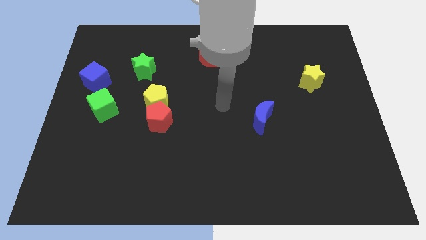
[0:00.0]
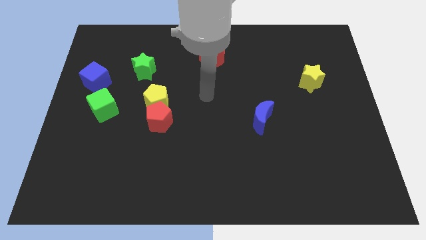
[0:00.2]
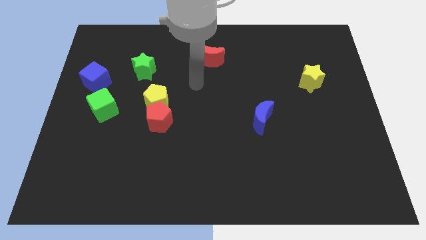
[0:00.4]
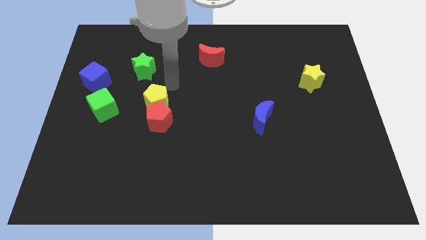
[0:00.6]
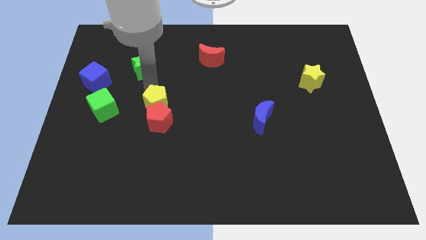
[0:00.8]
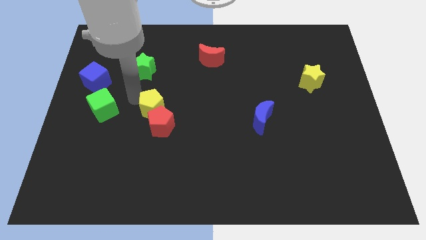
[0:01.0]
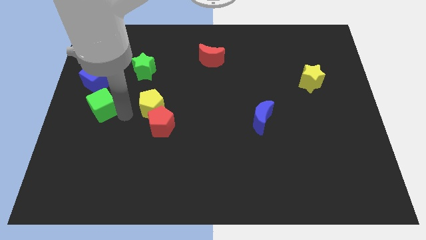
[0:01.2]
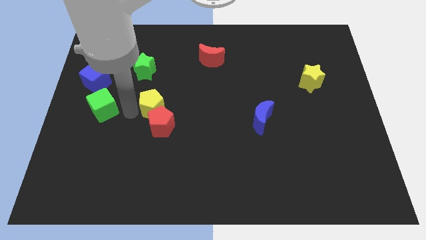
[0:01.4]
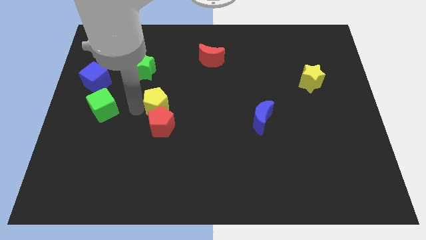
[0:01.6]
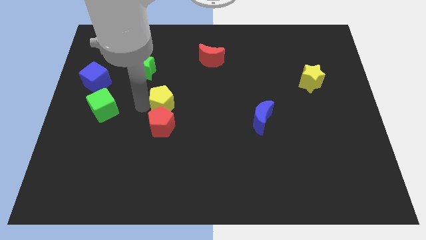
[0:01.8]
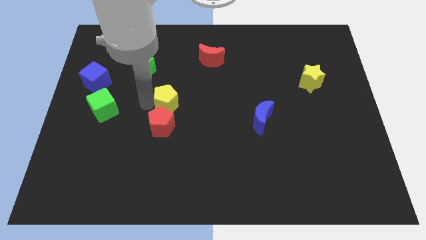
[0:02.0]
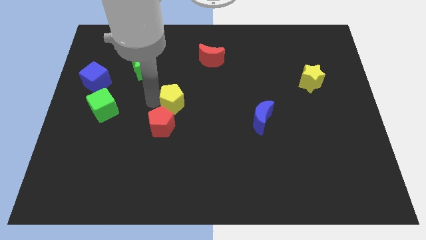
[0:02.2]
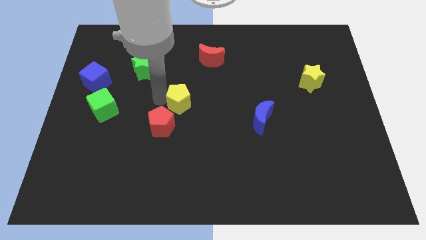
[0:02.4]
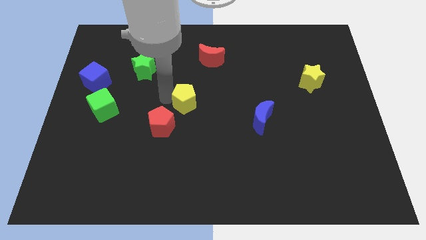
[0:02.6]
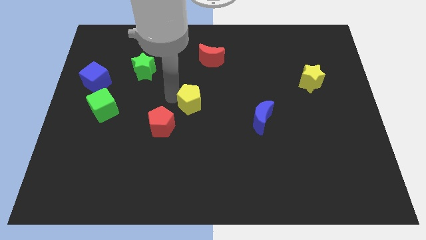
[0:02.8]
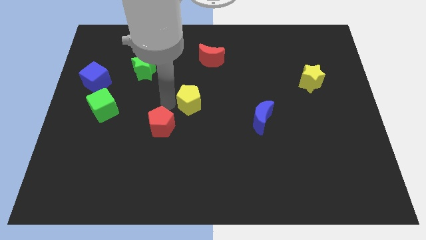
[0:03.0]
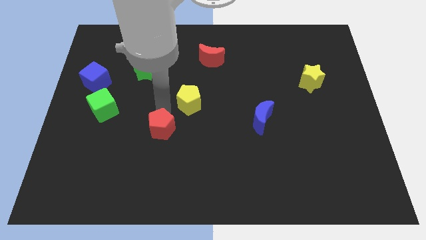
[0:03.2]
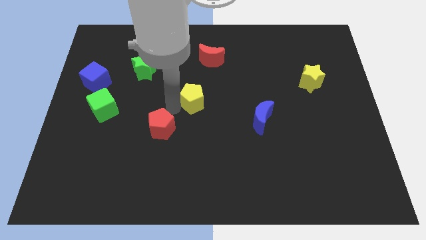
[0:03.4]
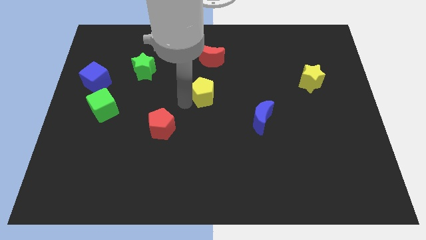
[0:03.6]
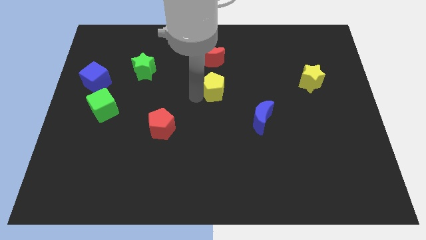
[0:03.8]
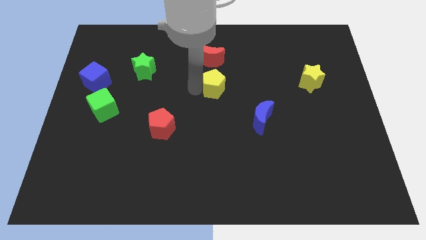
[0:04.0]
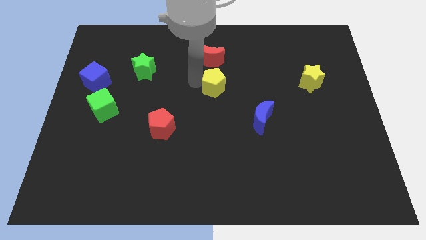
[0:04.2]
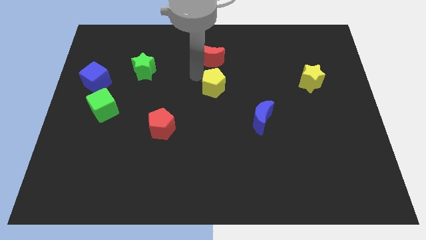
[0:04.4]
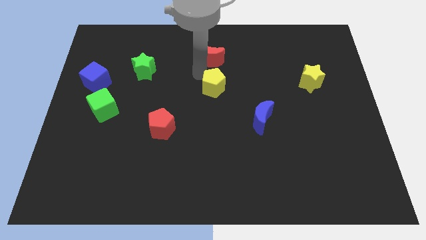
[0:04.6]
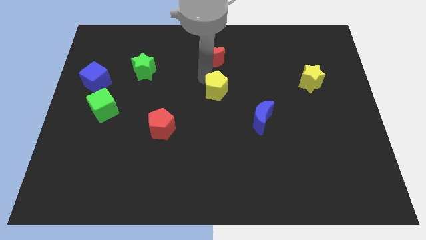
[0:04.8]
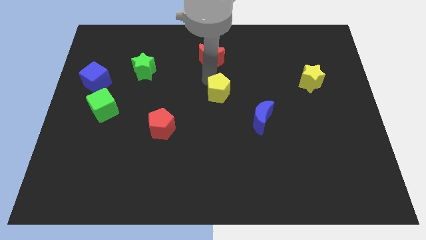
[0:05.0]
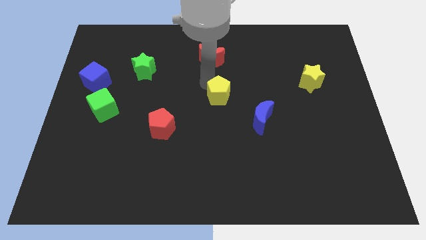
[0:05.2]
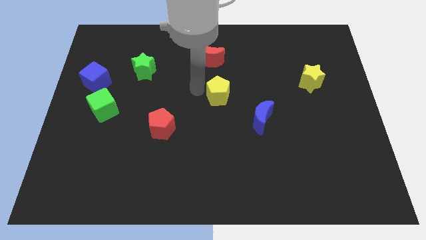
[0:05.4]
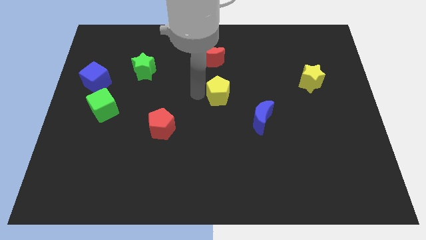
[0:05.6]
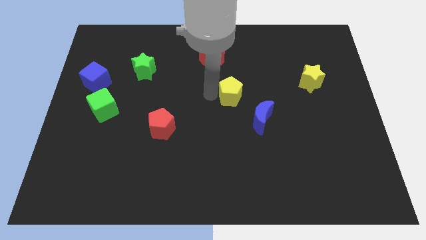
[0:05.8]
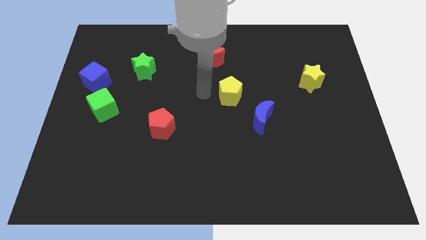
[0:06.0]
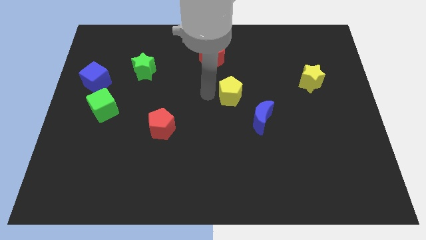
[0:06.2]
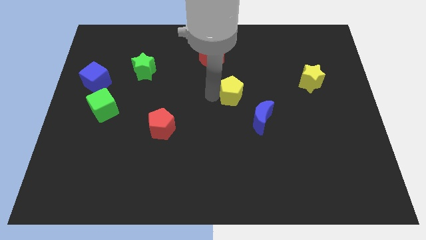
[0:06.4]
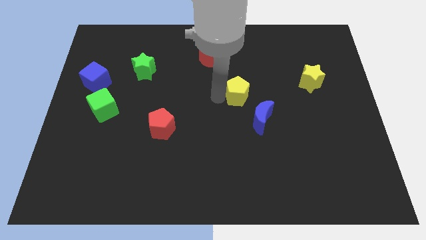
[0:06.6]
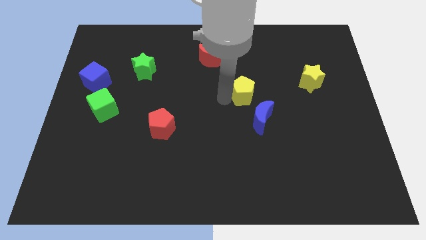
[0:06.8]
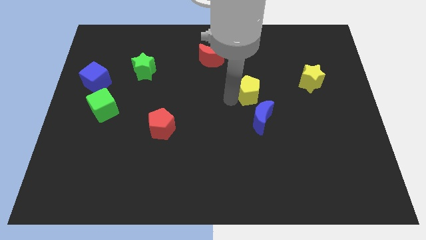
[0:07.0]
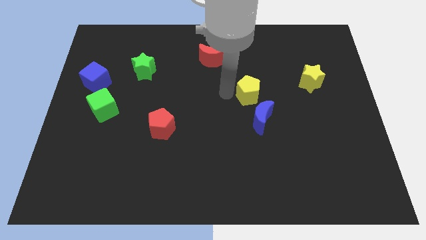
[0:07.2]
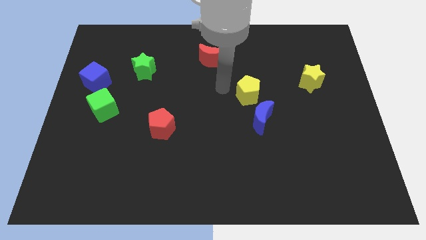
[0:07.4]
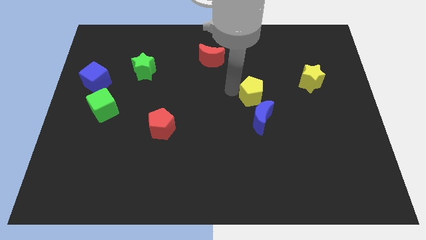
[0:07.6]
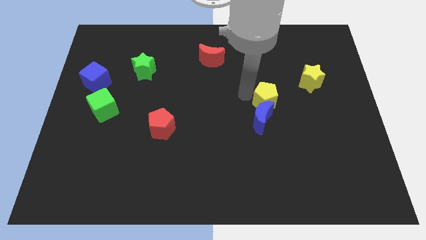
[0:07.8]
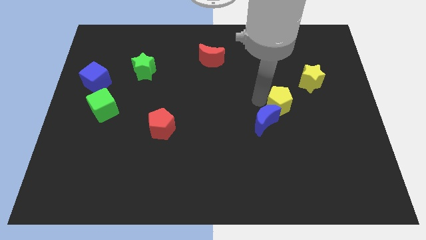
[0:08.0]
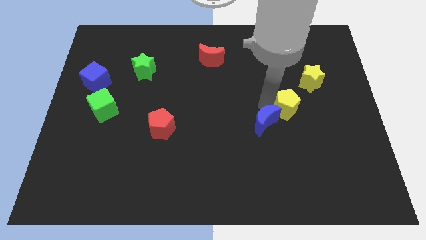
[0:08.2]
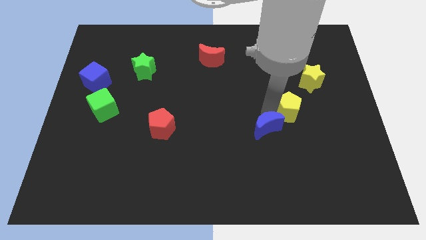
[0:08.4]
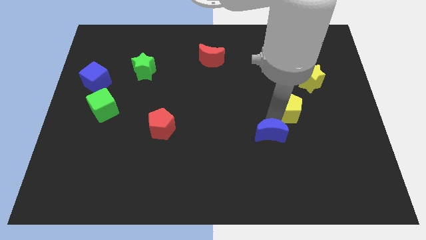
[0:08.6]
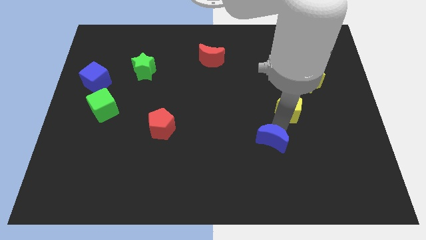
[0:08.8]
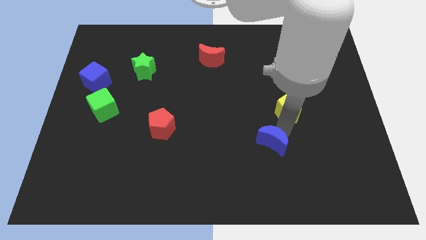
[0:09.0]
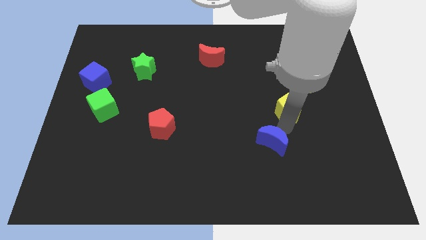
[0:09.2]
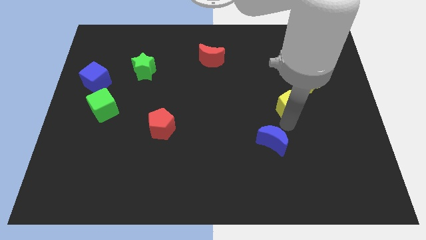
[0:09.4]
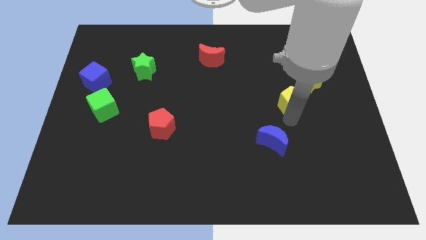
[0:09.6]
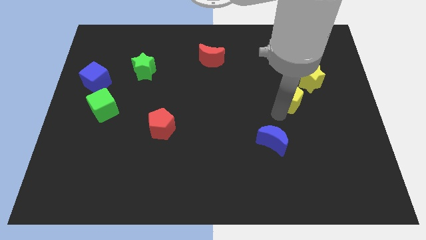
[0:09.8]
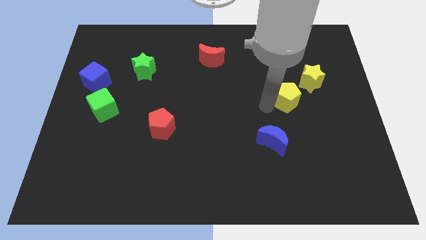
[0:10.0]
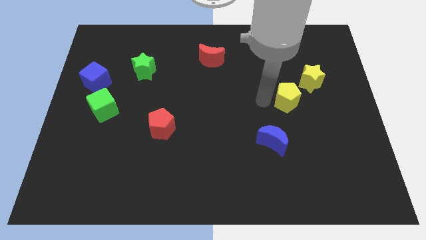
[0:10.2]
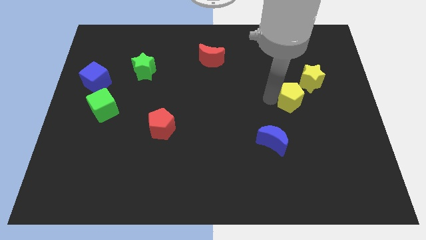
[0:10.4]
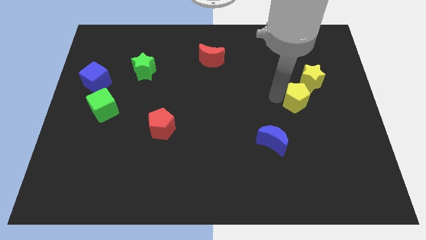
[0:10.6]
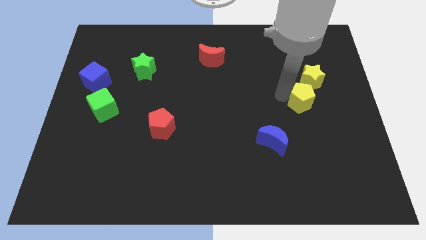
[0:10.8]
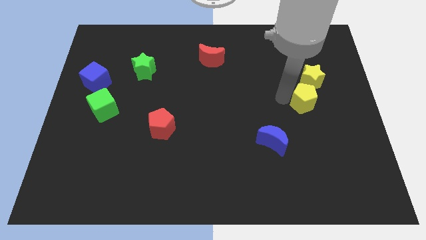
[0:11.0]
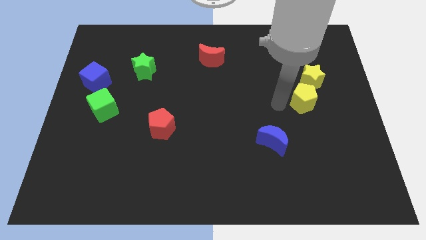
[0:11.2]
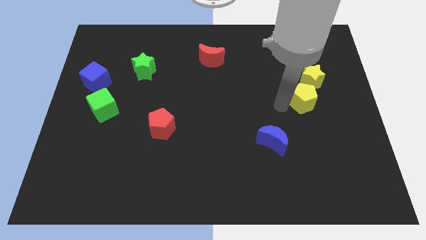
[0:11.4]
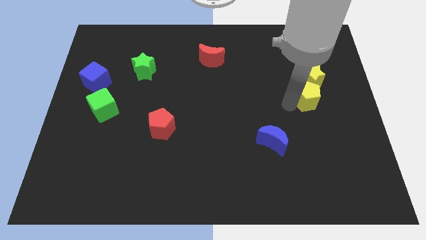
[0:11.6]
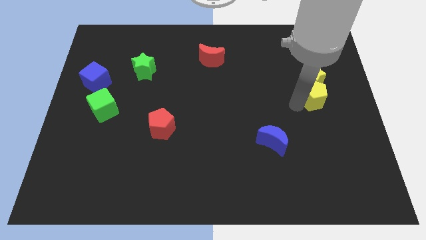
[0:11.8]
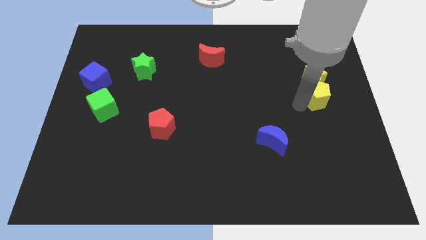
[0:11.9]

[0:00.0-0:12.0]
move the yellow pentagon to the center right

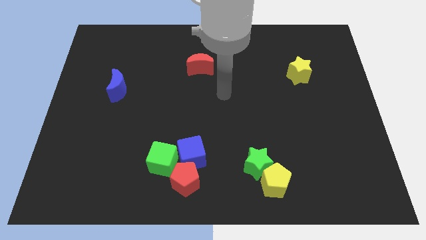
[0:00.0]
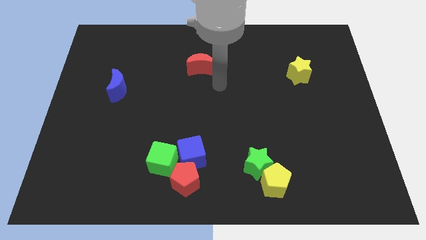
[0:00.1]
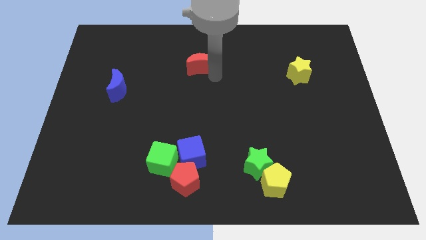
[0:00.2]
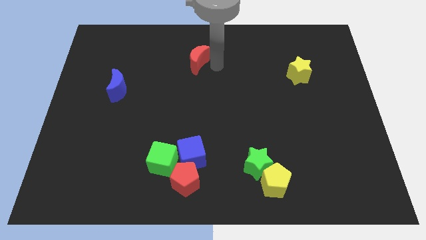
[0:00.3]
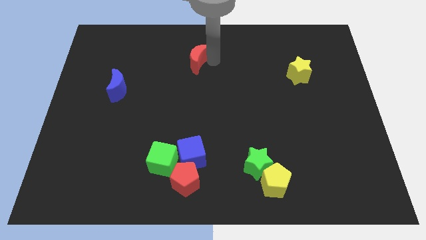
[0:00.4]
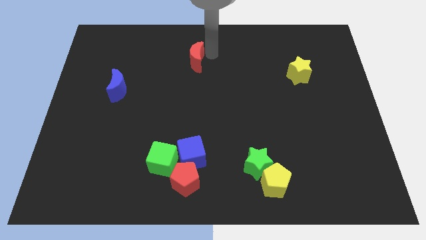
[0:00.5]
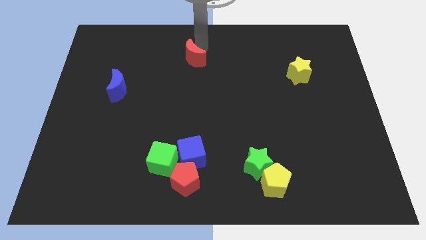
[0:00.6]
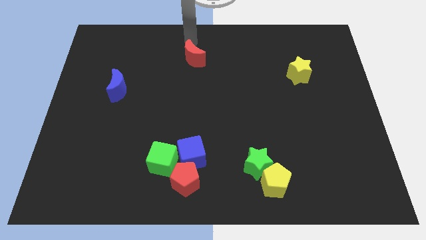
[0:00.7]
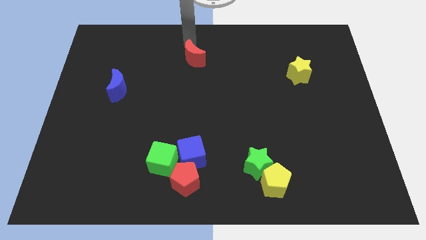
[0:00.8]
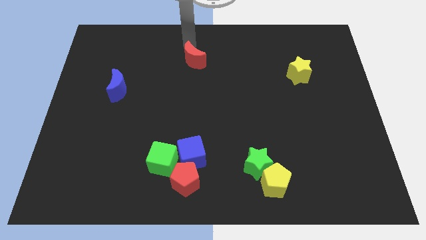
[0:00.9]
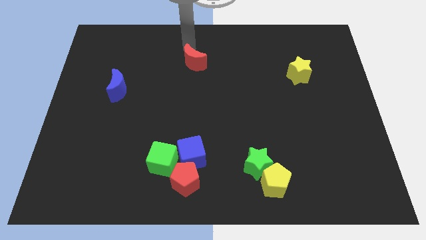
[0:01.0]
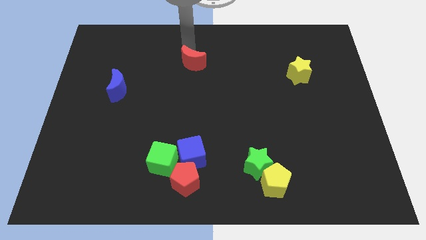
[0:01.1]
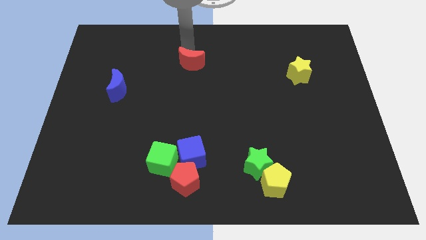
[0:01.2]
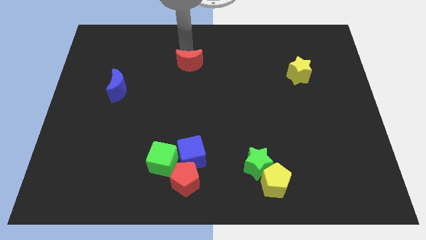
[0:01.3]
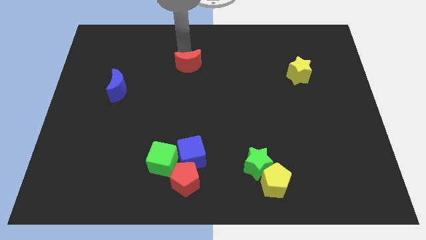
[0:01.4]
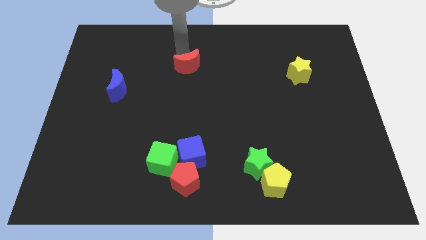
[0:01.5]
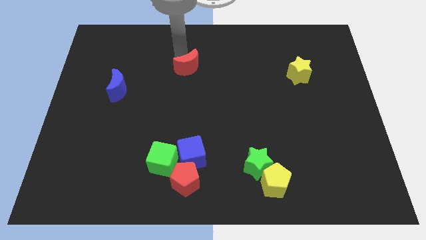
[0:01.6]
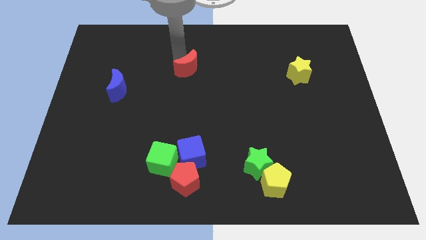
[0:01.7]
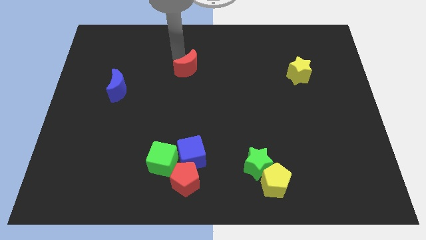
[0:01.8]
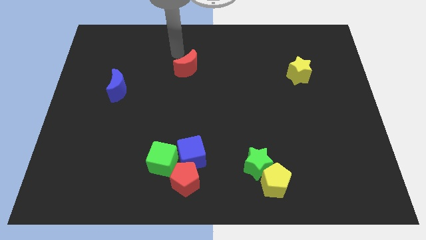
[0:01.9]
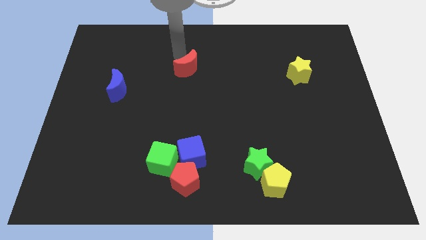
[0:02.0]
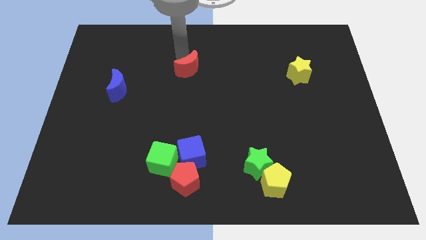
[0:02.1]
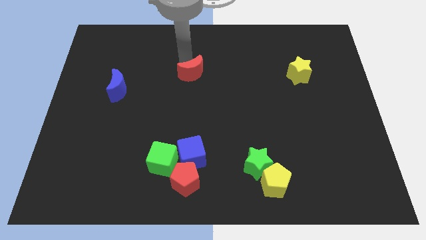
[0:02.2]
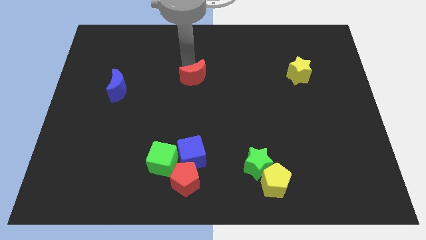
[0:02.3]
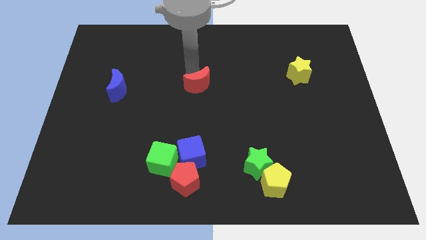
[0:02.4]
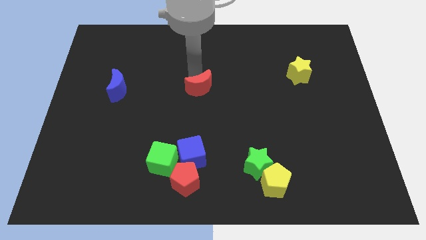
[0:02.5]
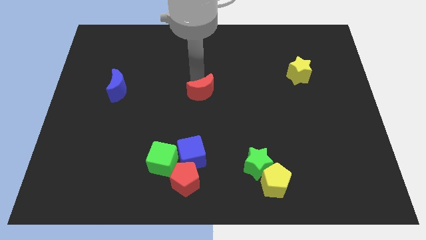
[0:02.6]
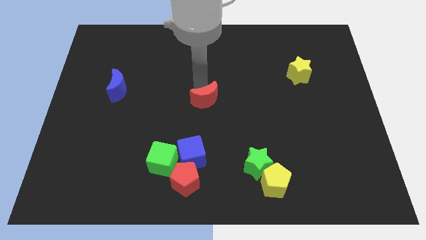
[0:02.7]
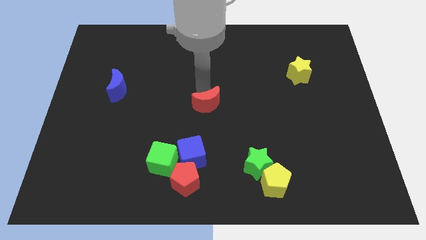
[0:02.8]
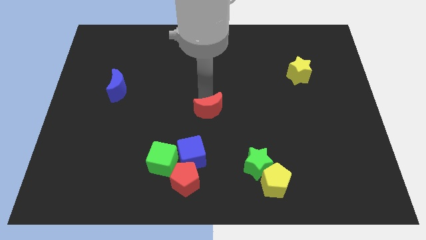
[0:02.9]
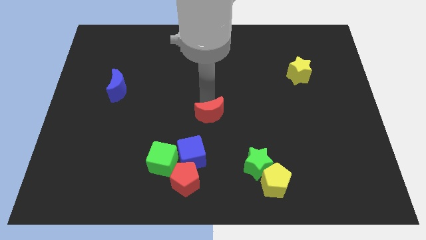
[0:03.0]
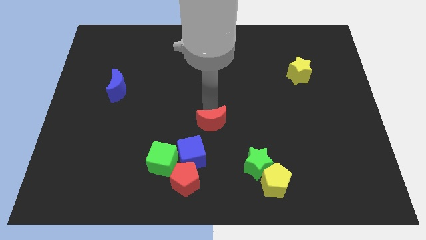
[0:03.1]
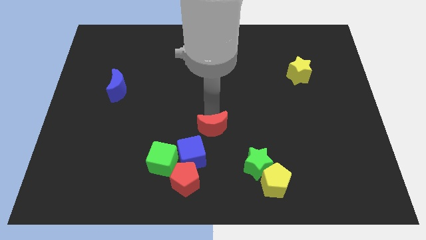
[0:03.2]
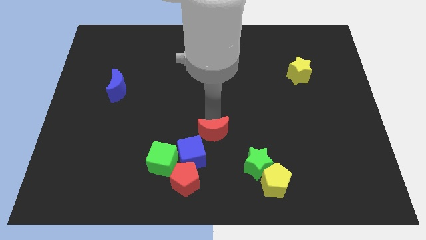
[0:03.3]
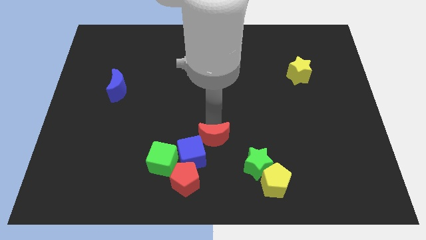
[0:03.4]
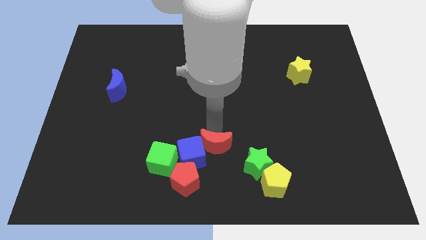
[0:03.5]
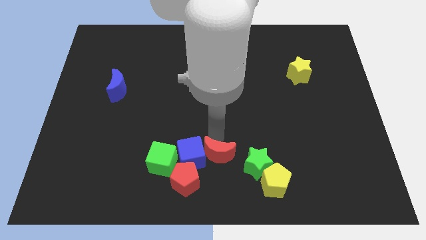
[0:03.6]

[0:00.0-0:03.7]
move the red moon to the bottom side
